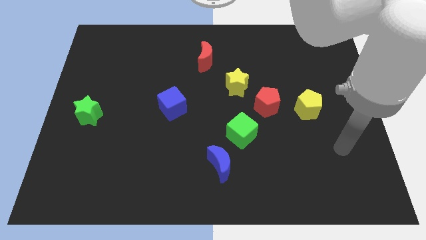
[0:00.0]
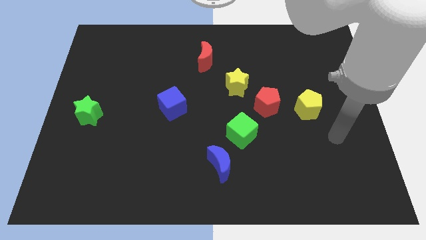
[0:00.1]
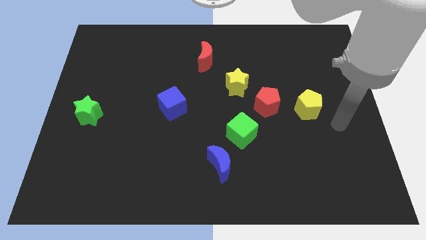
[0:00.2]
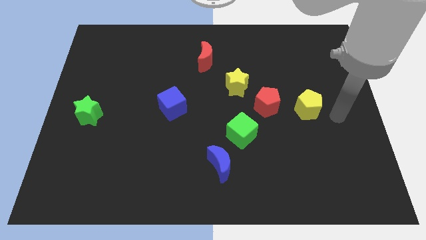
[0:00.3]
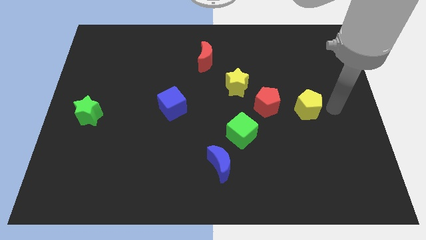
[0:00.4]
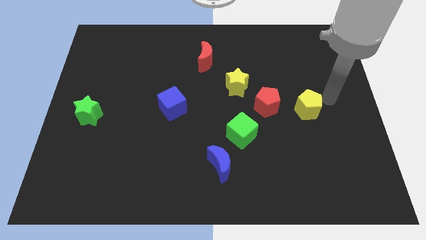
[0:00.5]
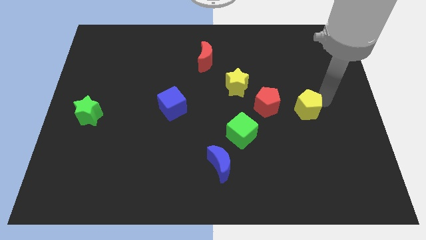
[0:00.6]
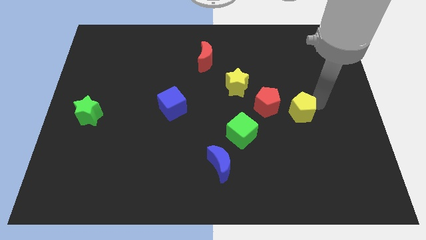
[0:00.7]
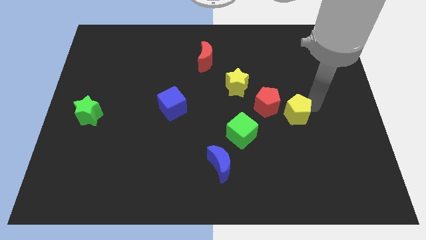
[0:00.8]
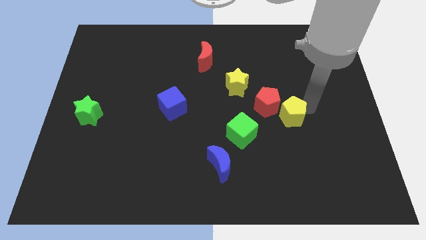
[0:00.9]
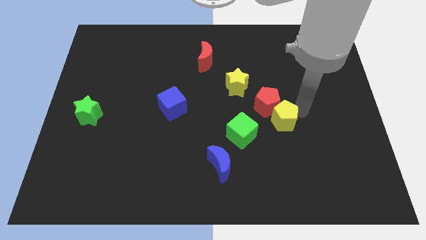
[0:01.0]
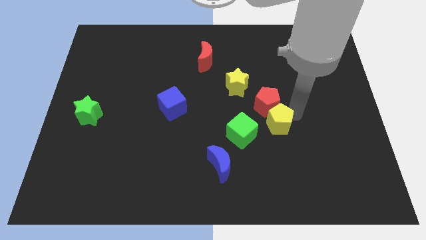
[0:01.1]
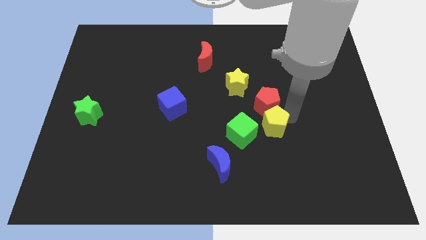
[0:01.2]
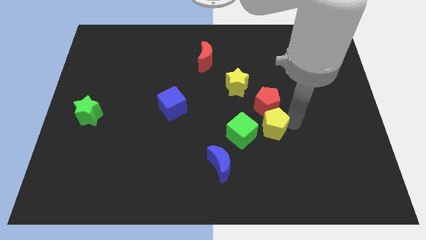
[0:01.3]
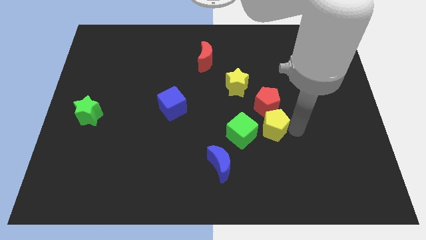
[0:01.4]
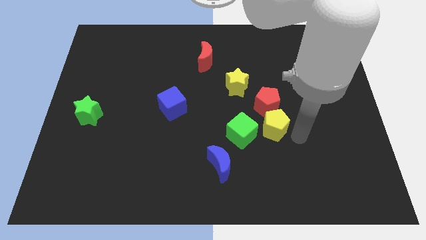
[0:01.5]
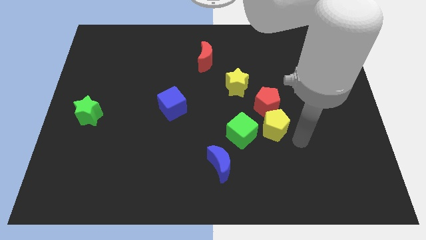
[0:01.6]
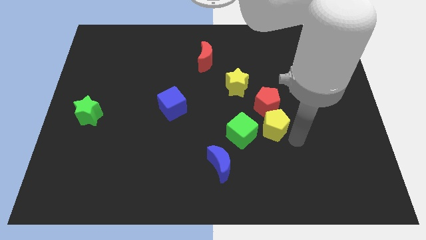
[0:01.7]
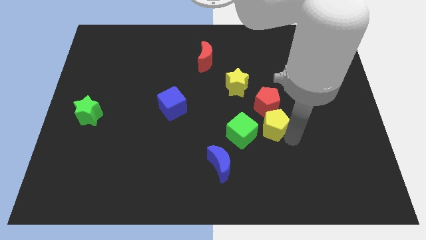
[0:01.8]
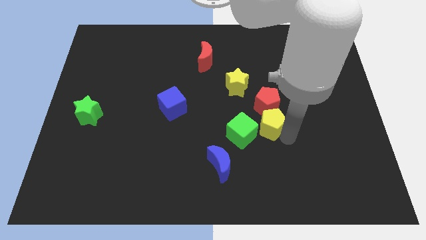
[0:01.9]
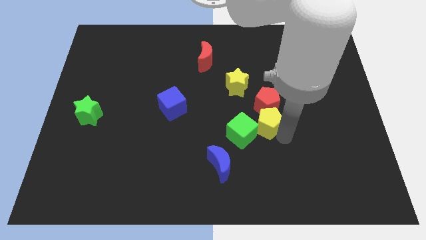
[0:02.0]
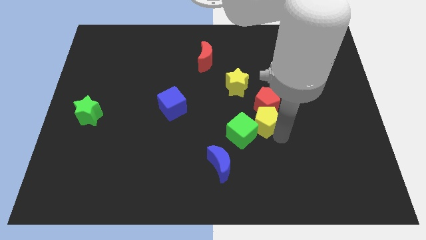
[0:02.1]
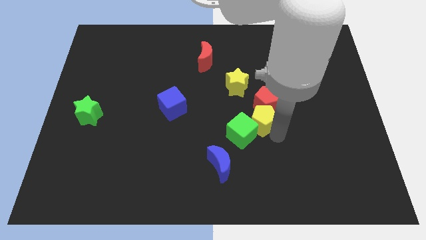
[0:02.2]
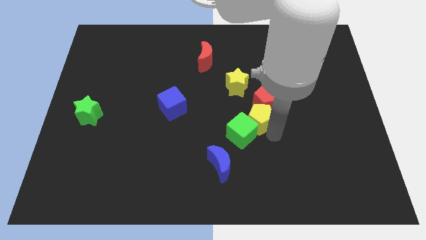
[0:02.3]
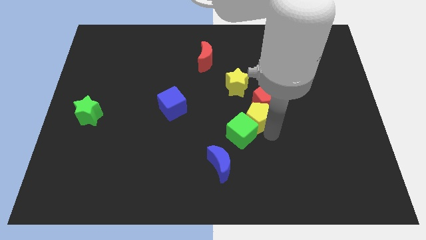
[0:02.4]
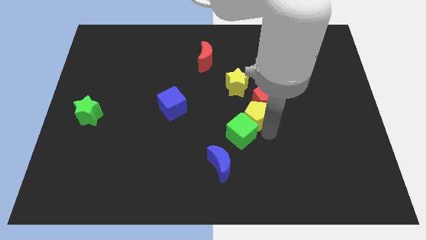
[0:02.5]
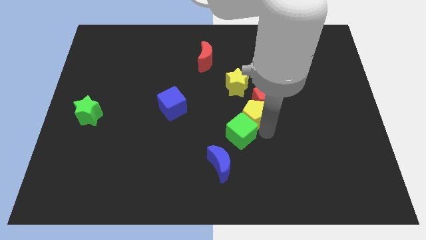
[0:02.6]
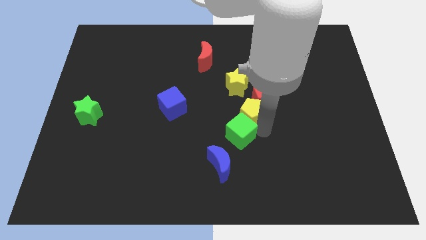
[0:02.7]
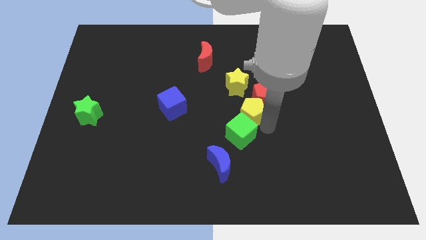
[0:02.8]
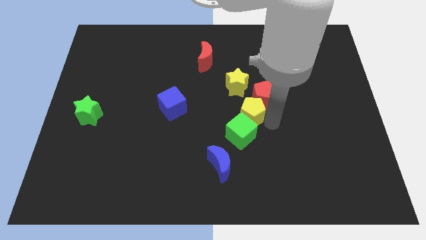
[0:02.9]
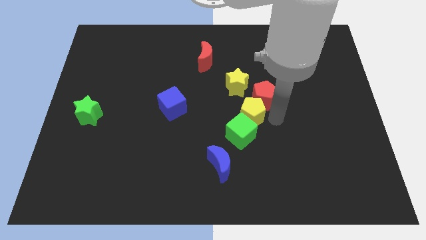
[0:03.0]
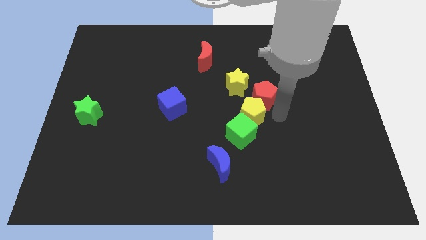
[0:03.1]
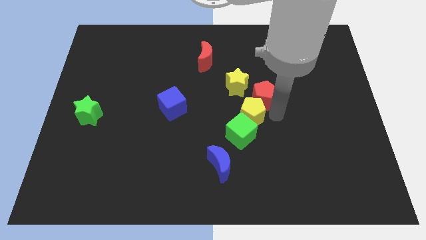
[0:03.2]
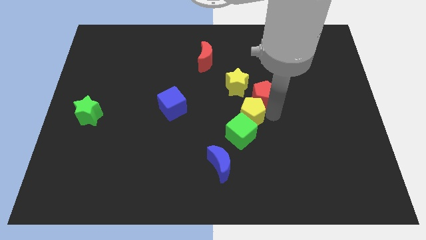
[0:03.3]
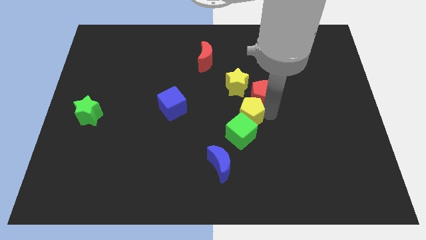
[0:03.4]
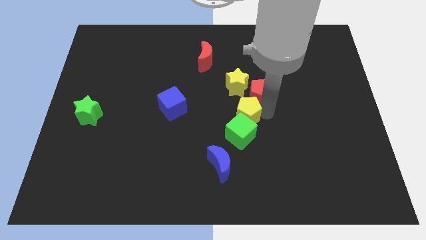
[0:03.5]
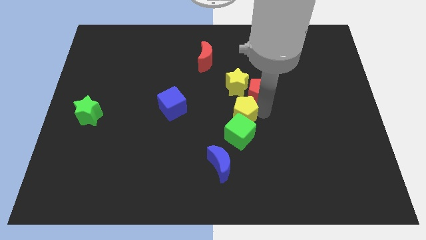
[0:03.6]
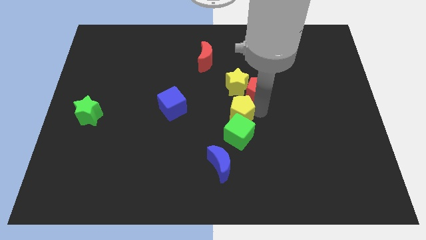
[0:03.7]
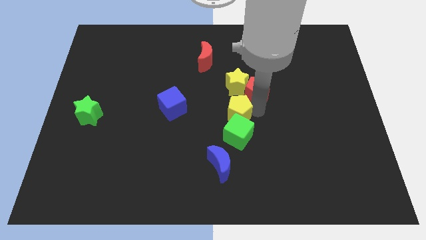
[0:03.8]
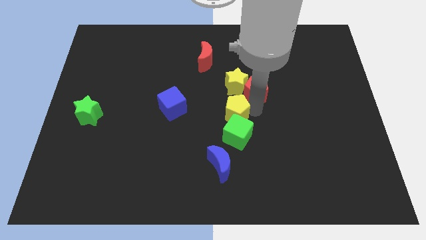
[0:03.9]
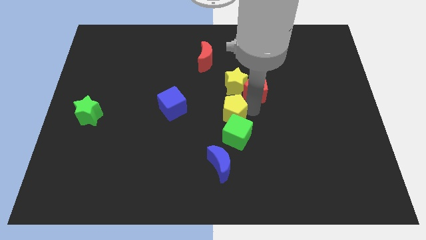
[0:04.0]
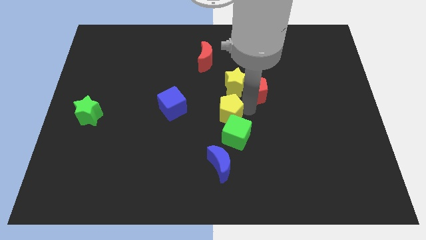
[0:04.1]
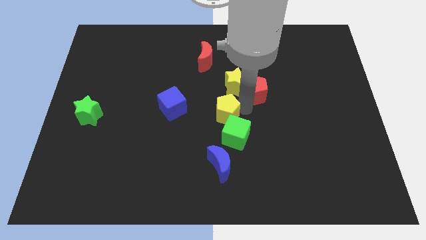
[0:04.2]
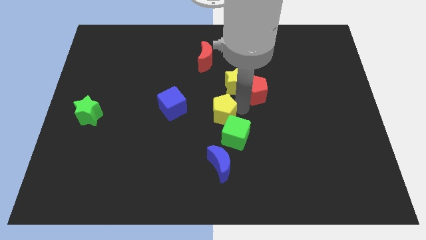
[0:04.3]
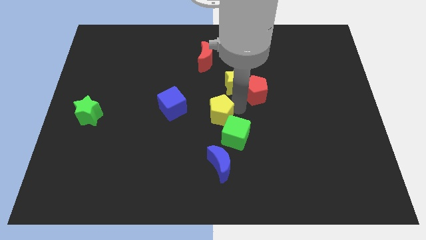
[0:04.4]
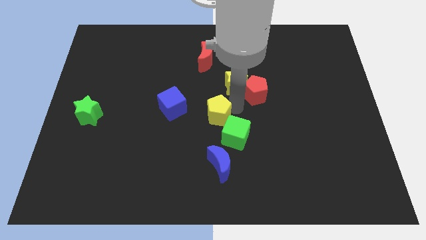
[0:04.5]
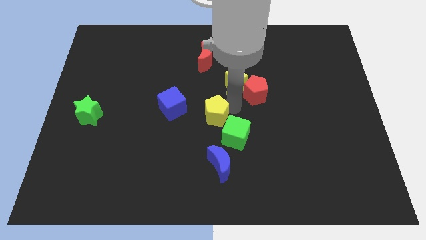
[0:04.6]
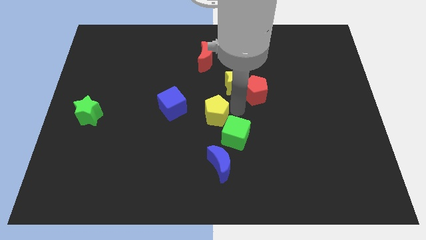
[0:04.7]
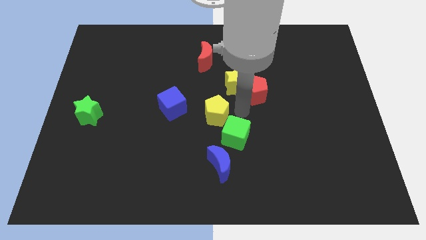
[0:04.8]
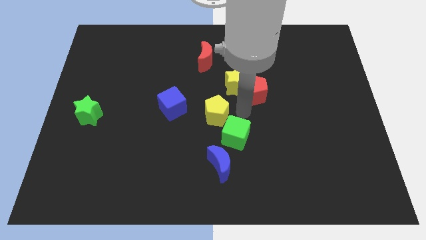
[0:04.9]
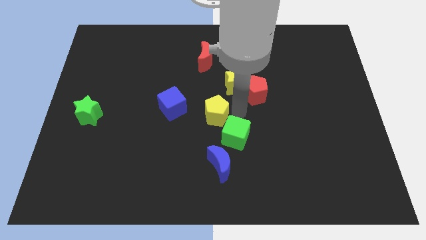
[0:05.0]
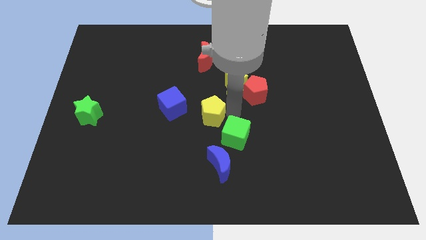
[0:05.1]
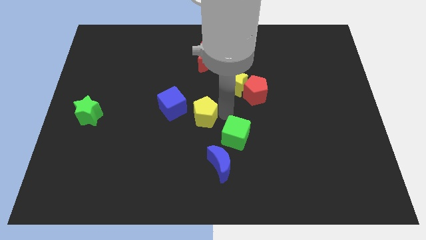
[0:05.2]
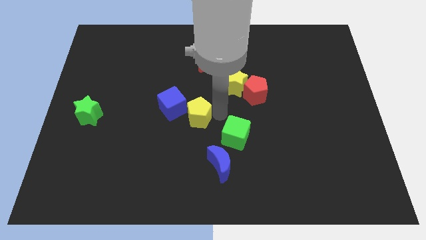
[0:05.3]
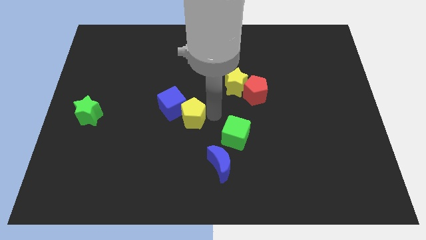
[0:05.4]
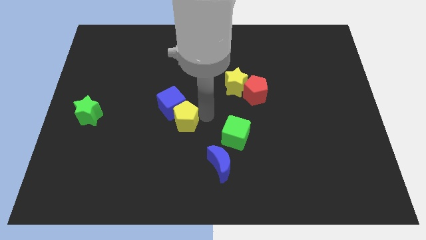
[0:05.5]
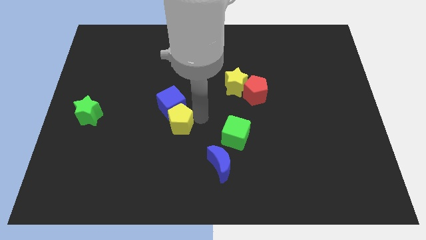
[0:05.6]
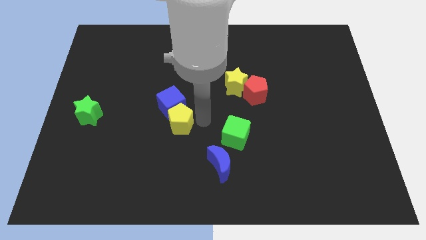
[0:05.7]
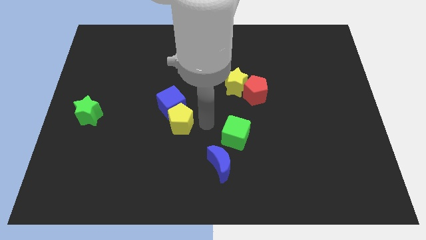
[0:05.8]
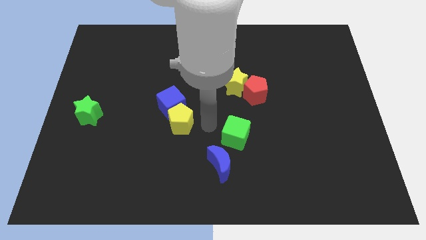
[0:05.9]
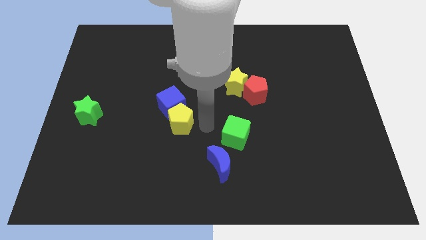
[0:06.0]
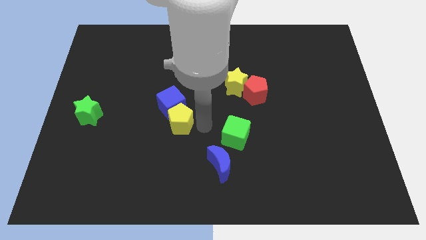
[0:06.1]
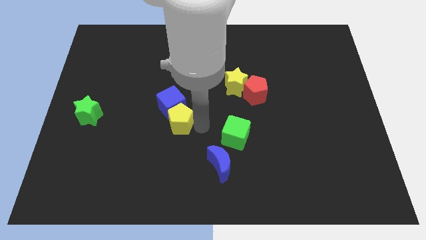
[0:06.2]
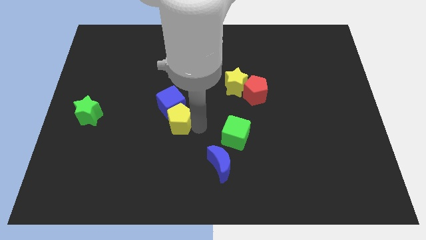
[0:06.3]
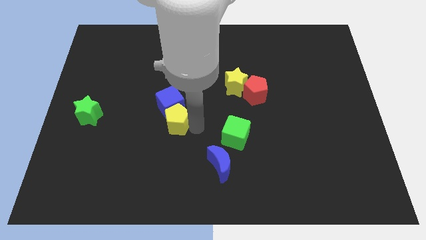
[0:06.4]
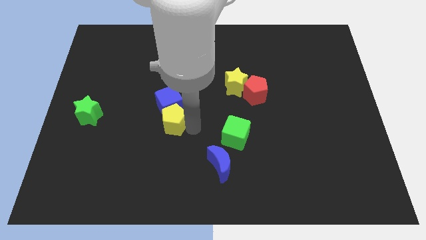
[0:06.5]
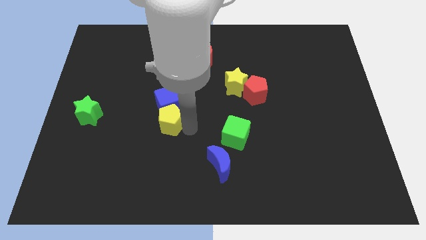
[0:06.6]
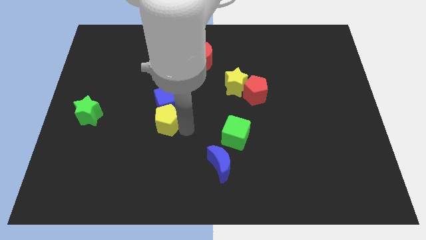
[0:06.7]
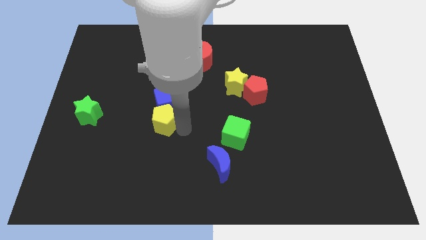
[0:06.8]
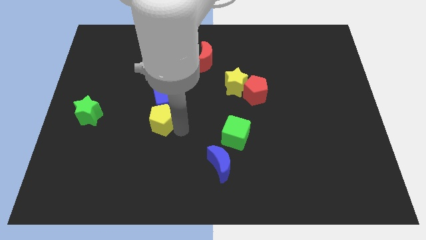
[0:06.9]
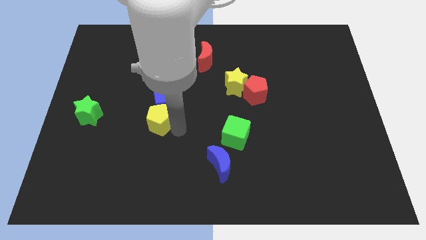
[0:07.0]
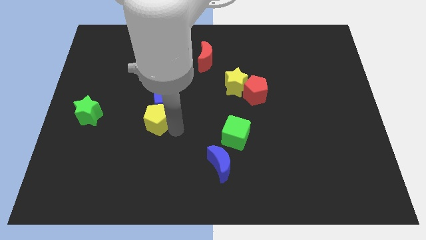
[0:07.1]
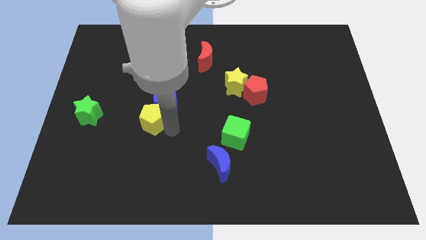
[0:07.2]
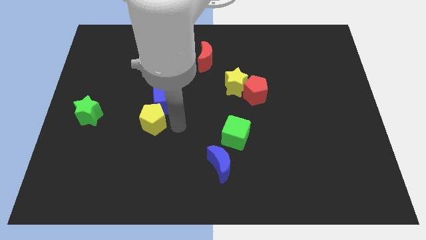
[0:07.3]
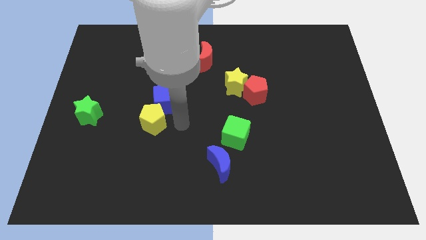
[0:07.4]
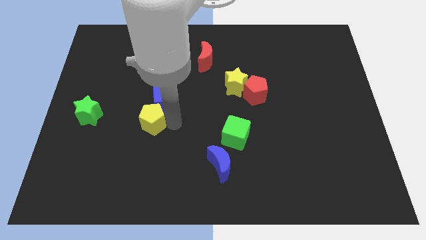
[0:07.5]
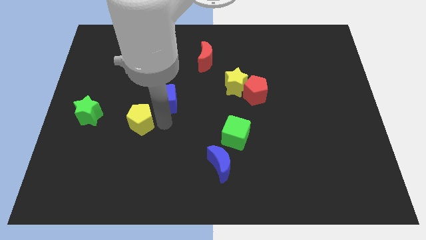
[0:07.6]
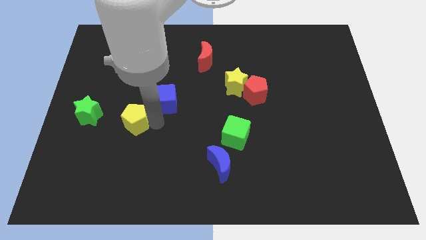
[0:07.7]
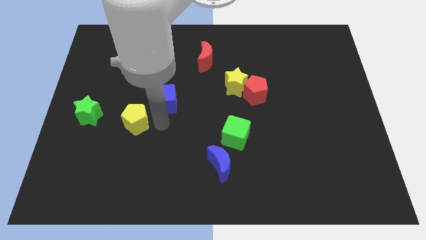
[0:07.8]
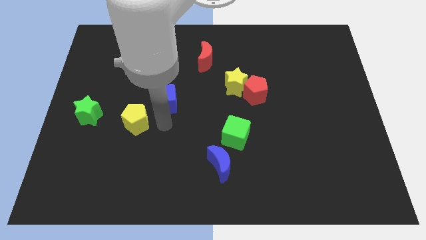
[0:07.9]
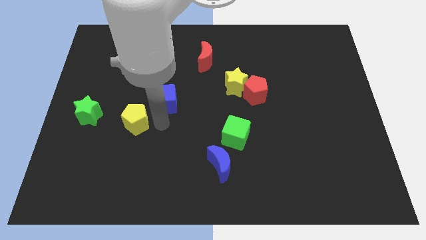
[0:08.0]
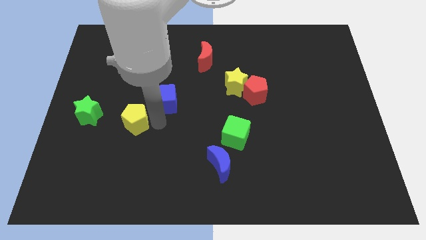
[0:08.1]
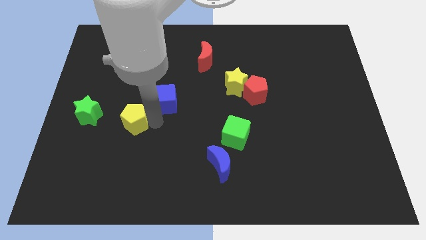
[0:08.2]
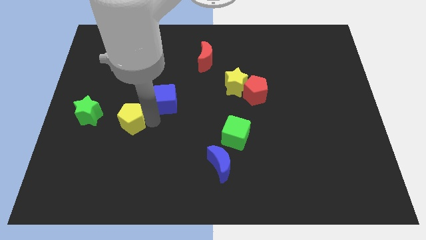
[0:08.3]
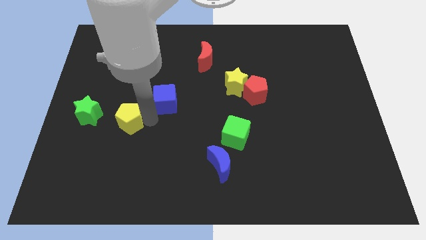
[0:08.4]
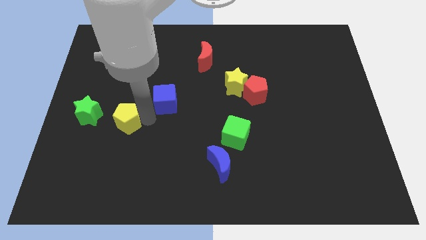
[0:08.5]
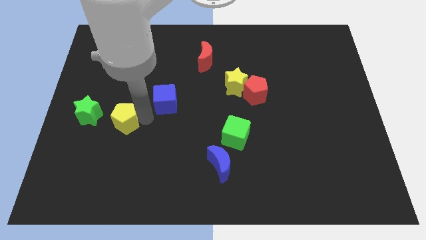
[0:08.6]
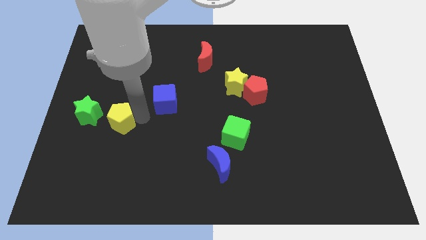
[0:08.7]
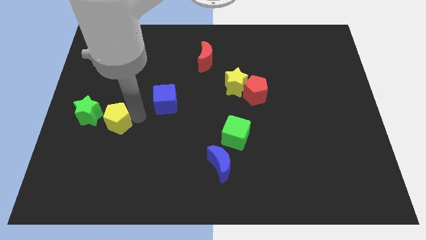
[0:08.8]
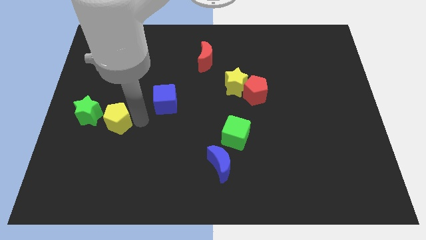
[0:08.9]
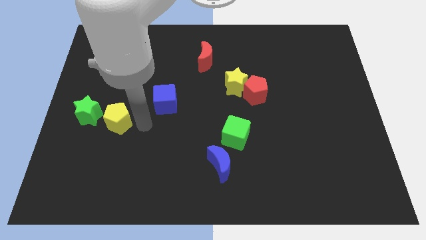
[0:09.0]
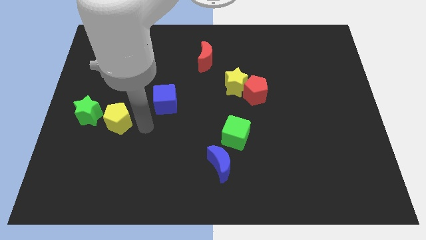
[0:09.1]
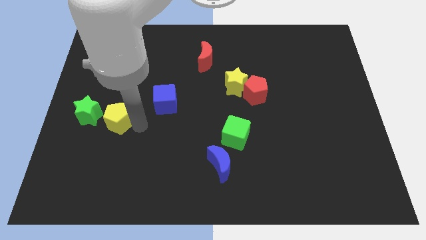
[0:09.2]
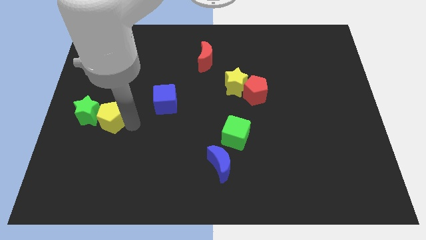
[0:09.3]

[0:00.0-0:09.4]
push the yellow pentagon to the green star
